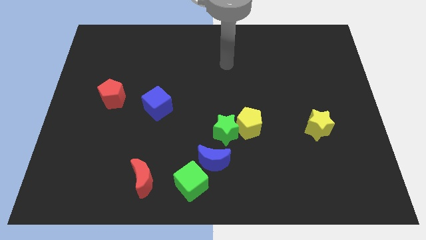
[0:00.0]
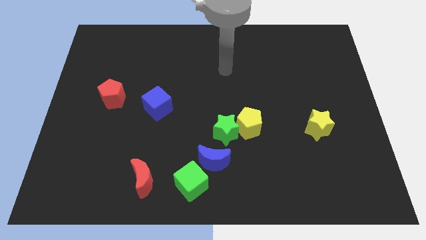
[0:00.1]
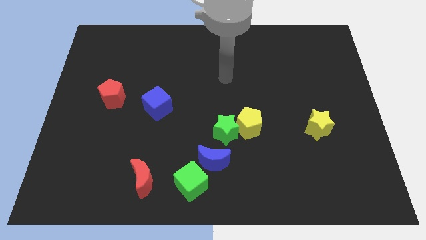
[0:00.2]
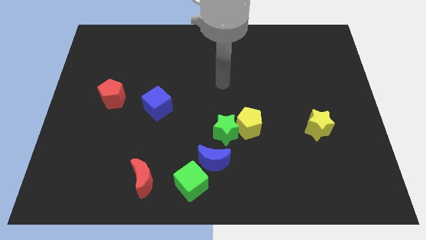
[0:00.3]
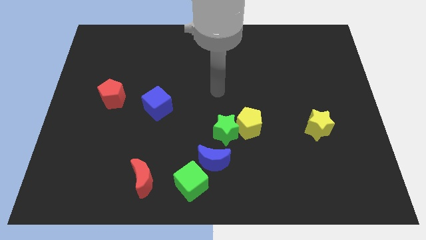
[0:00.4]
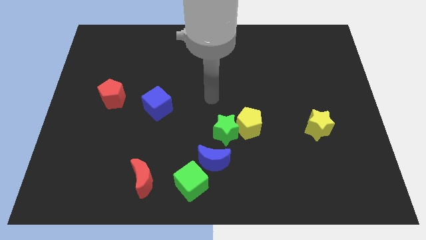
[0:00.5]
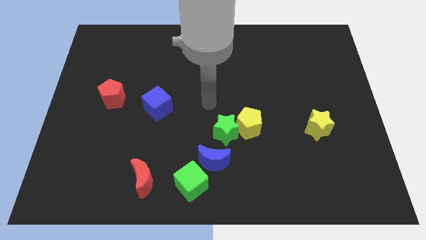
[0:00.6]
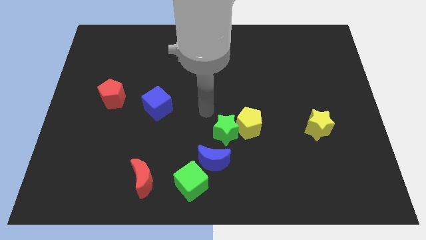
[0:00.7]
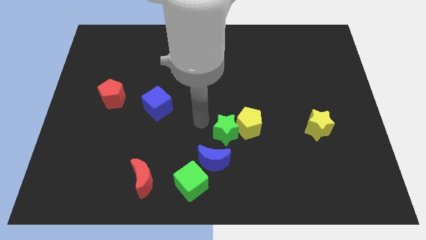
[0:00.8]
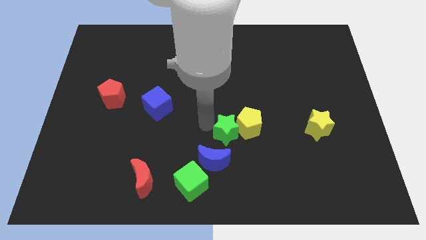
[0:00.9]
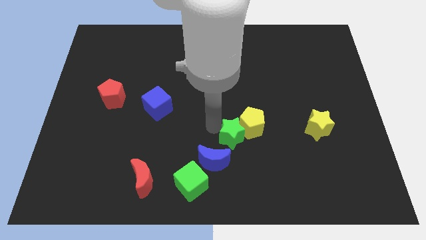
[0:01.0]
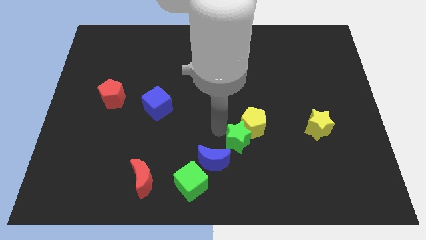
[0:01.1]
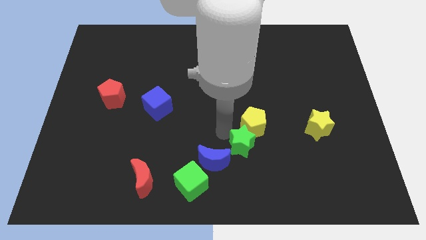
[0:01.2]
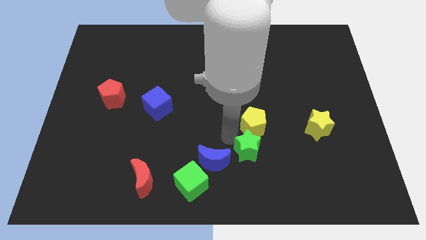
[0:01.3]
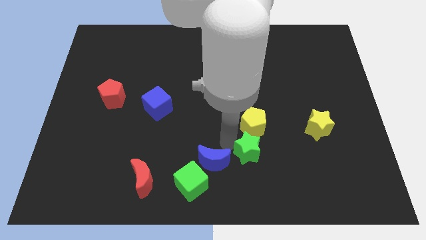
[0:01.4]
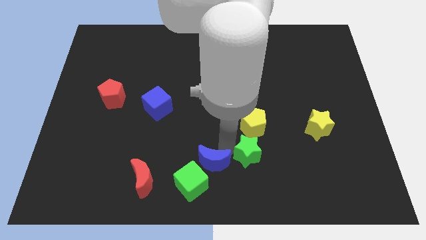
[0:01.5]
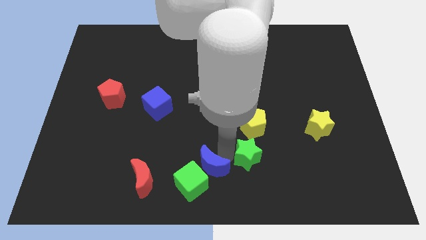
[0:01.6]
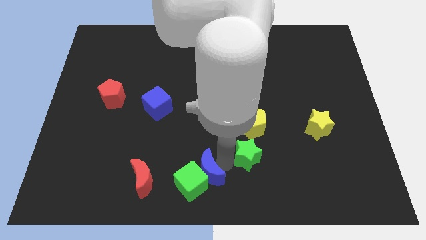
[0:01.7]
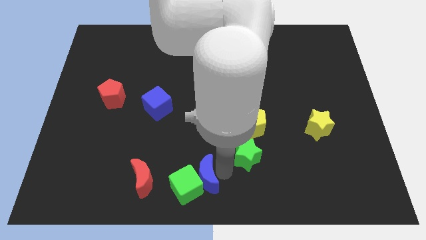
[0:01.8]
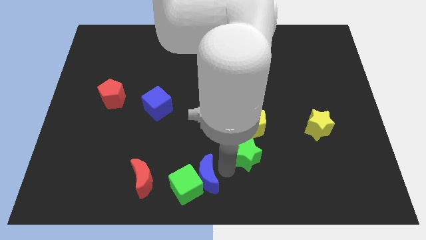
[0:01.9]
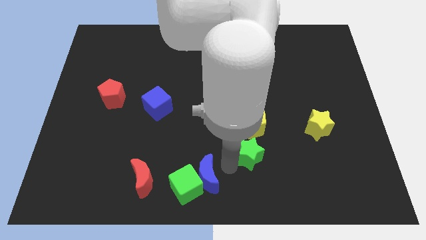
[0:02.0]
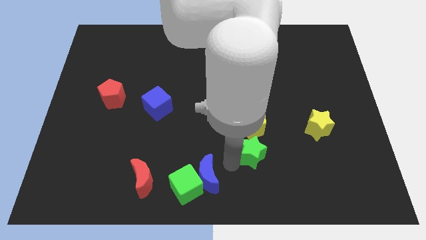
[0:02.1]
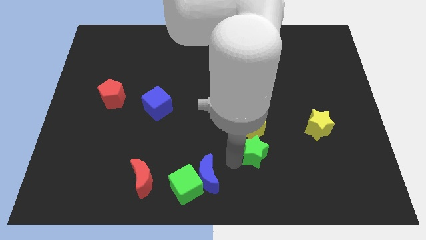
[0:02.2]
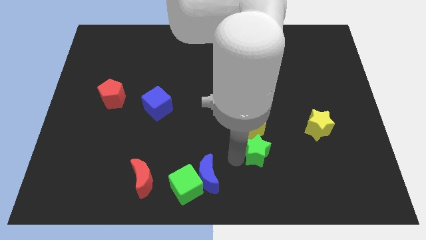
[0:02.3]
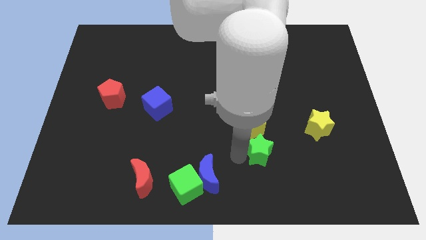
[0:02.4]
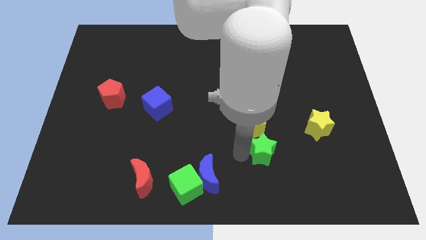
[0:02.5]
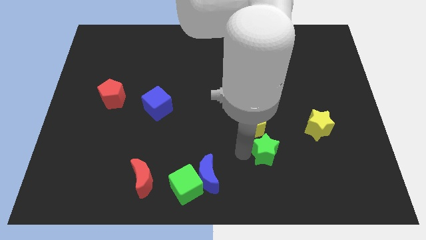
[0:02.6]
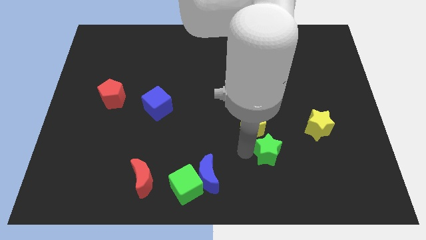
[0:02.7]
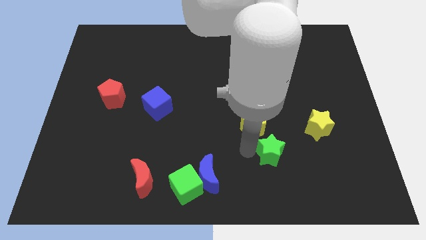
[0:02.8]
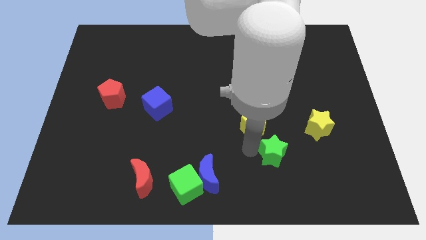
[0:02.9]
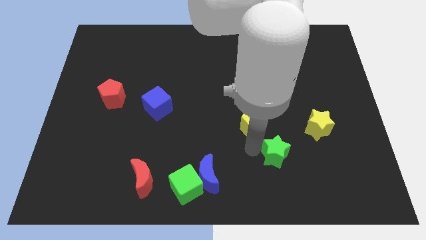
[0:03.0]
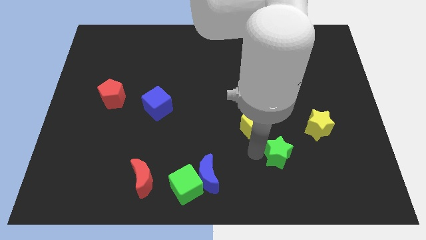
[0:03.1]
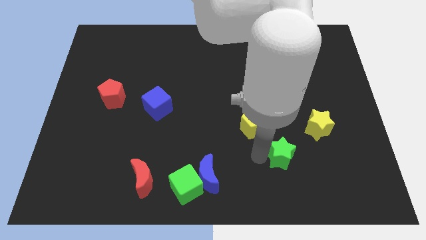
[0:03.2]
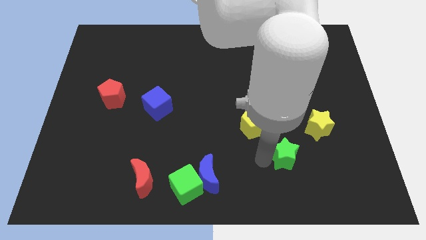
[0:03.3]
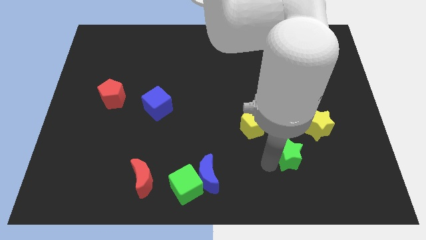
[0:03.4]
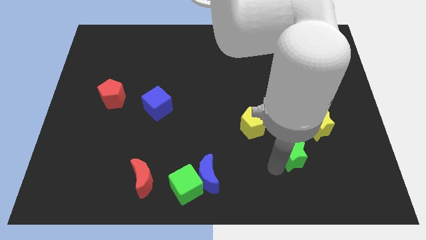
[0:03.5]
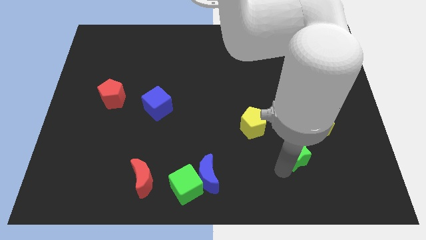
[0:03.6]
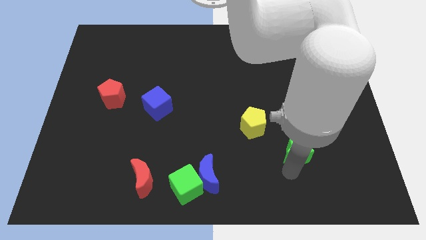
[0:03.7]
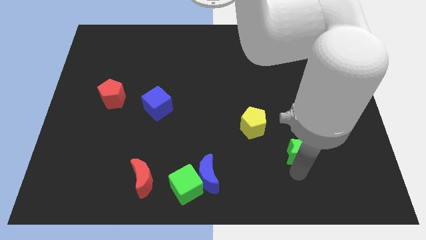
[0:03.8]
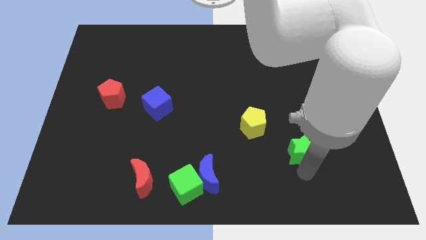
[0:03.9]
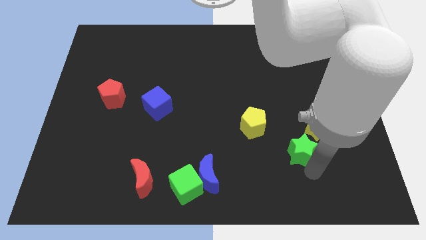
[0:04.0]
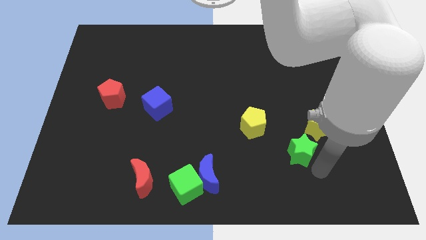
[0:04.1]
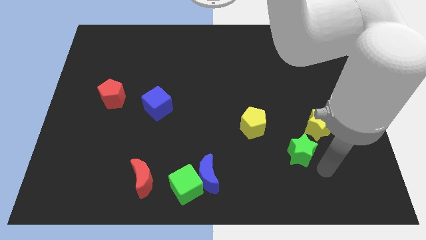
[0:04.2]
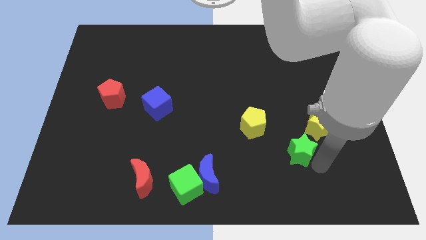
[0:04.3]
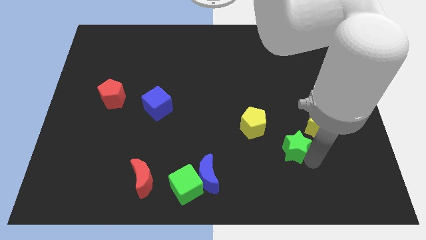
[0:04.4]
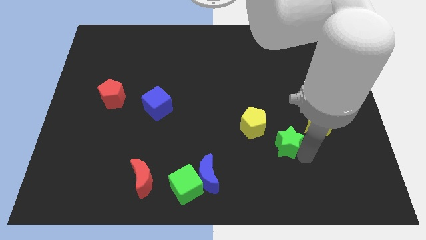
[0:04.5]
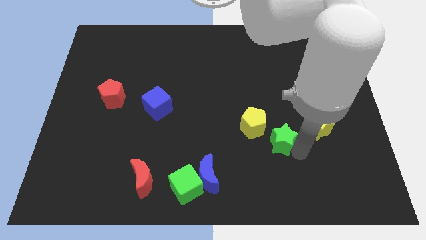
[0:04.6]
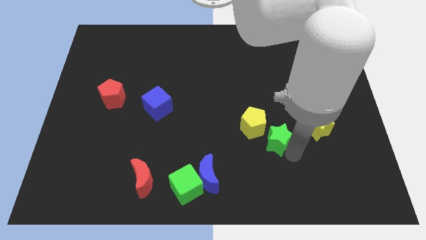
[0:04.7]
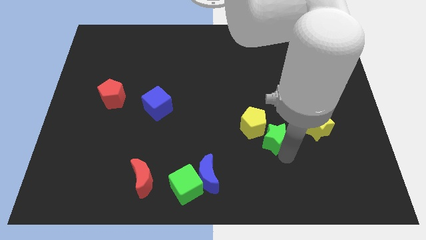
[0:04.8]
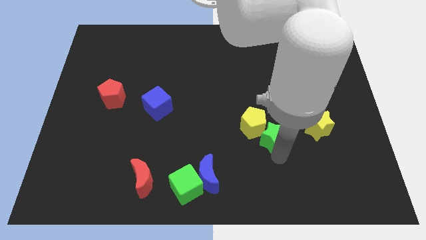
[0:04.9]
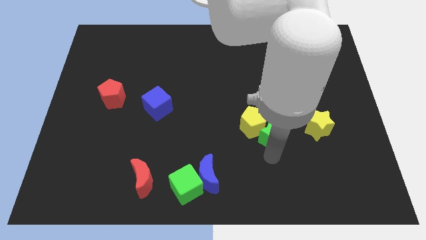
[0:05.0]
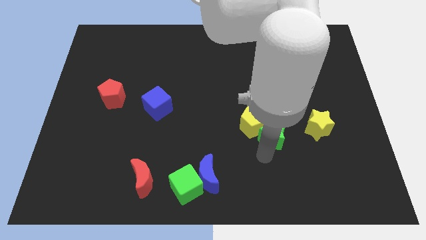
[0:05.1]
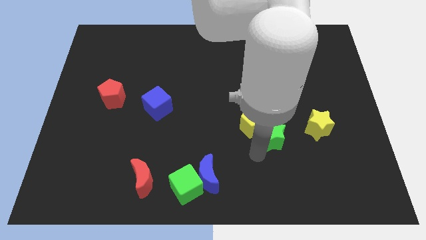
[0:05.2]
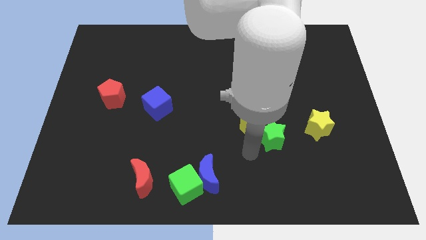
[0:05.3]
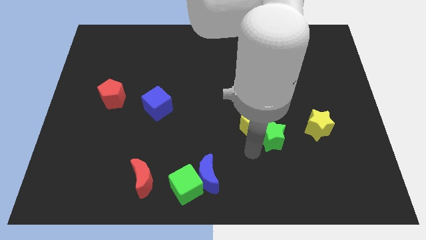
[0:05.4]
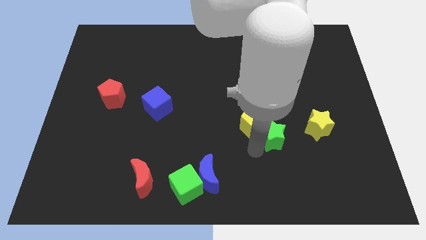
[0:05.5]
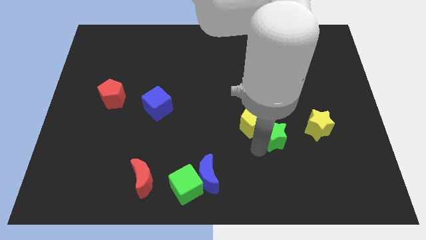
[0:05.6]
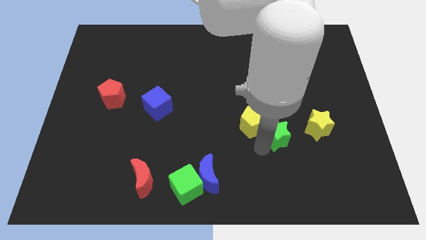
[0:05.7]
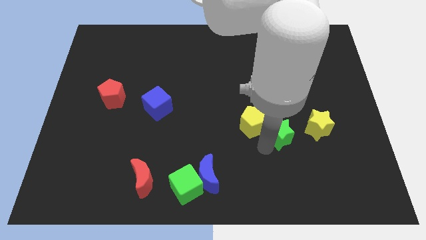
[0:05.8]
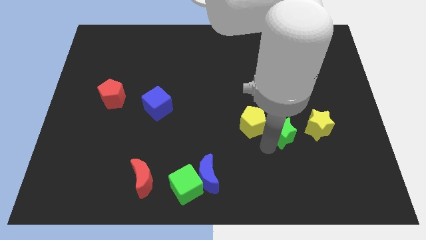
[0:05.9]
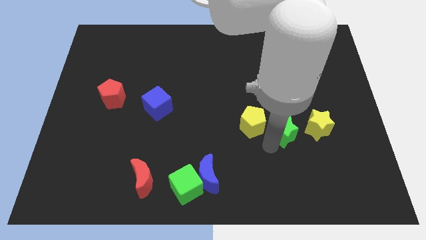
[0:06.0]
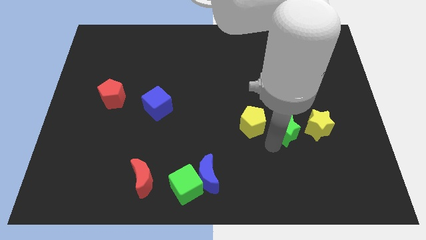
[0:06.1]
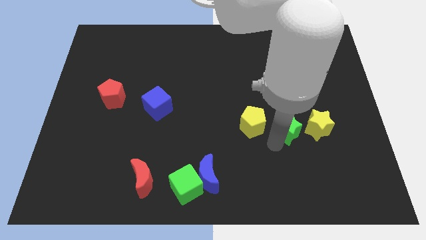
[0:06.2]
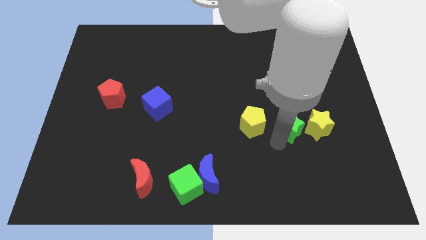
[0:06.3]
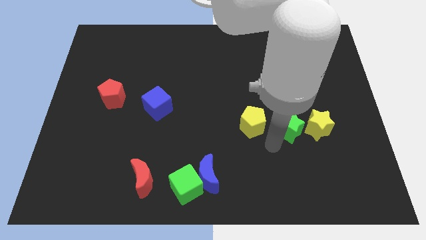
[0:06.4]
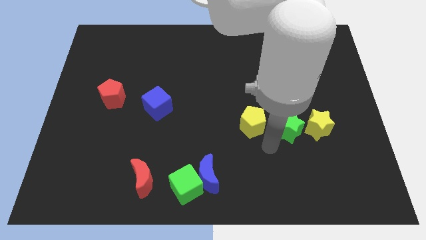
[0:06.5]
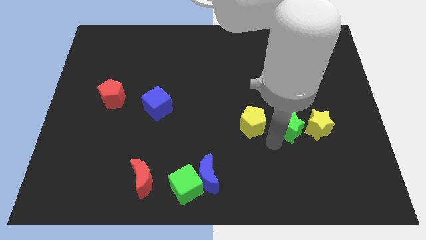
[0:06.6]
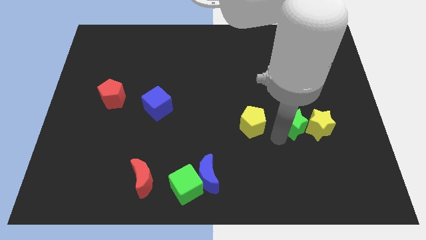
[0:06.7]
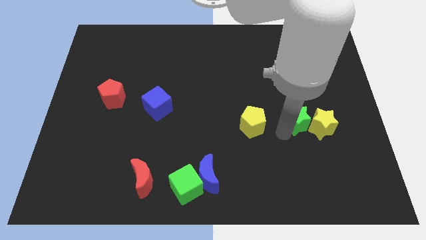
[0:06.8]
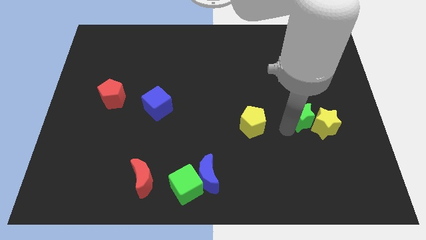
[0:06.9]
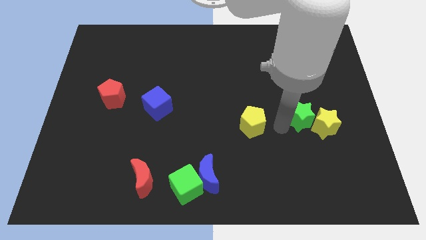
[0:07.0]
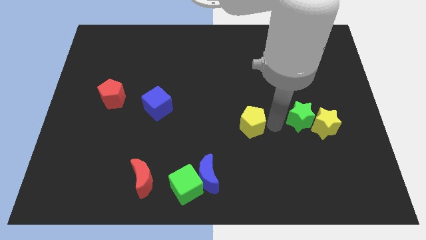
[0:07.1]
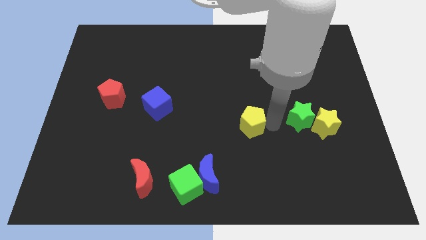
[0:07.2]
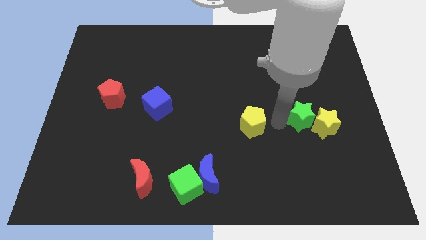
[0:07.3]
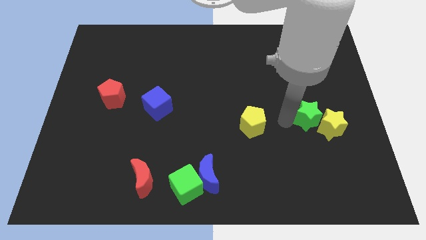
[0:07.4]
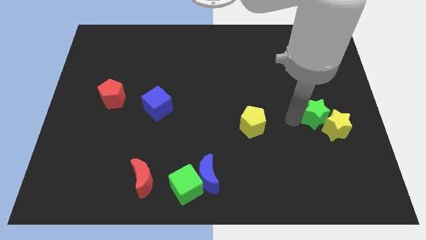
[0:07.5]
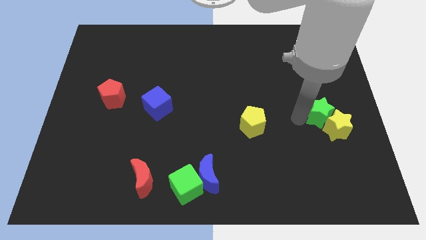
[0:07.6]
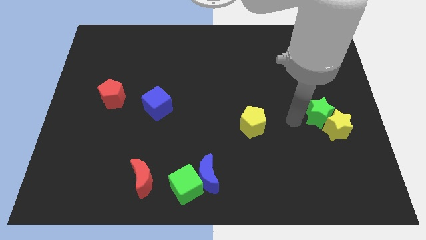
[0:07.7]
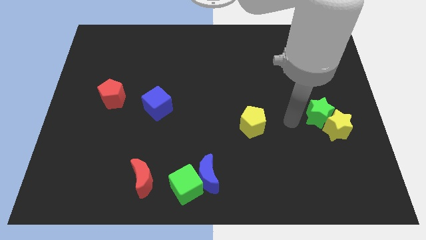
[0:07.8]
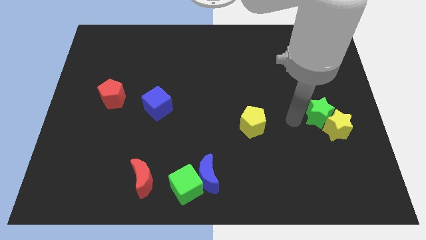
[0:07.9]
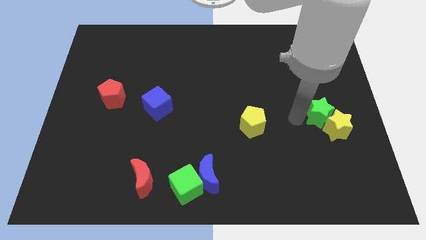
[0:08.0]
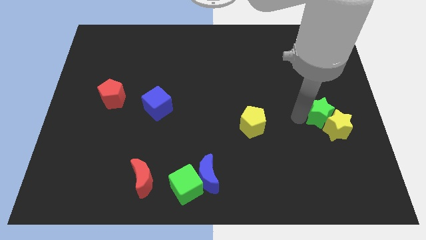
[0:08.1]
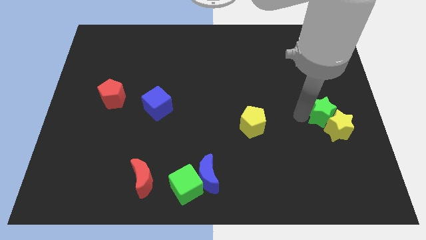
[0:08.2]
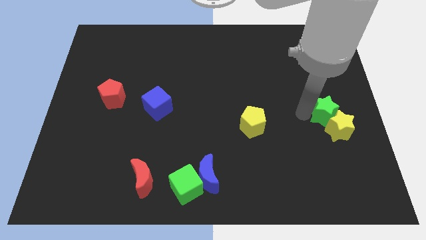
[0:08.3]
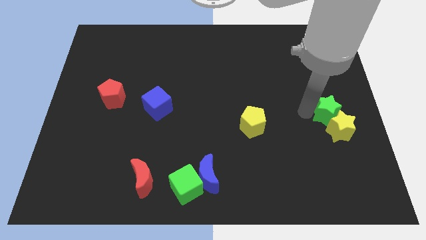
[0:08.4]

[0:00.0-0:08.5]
move the green star to the right side of the board
